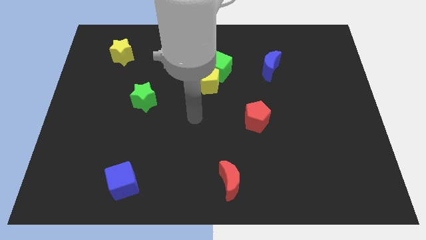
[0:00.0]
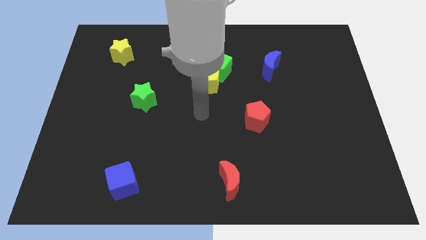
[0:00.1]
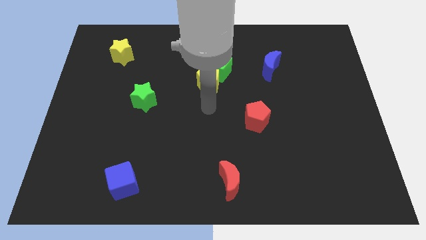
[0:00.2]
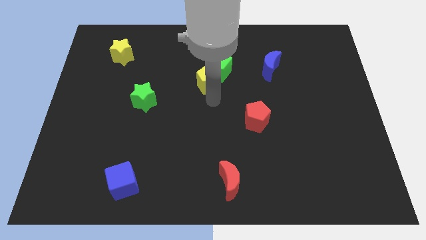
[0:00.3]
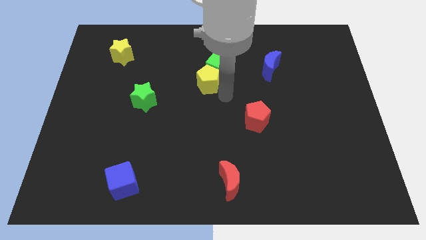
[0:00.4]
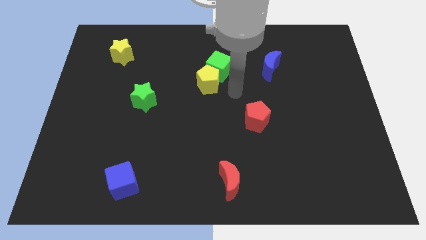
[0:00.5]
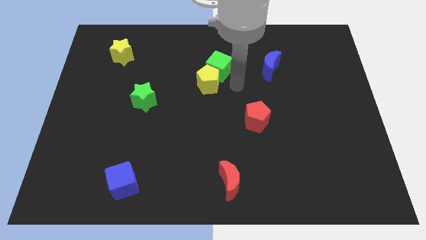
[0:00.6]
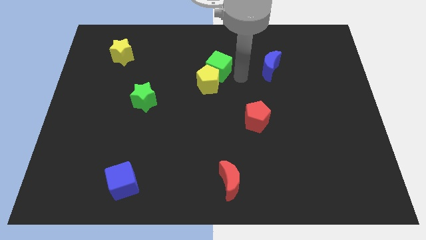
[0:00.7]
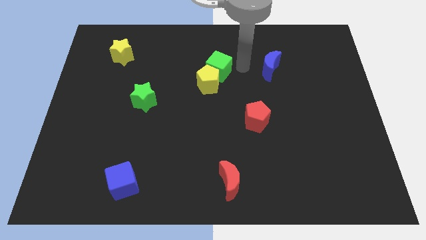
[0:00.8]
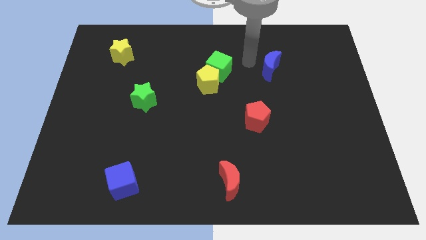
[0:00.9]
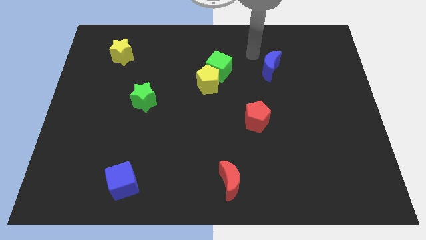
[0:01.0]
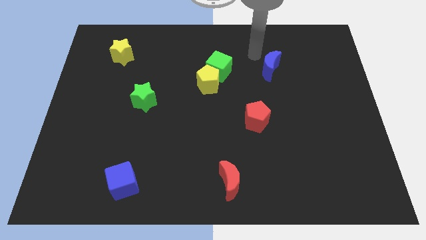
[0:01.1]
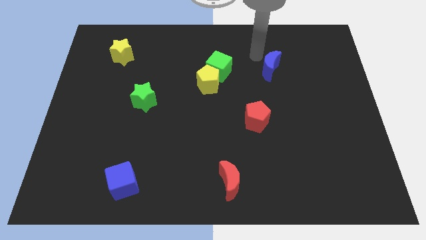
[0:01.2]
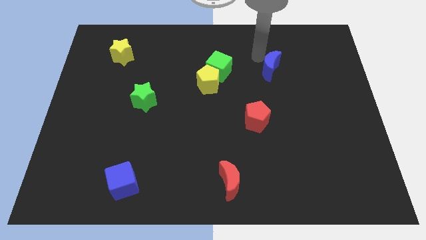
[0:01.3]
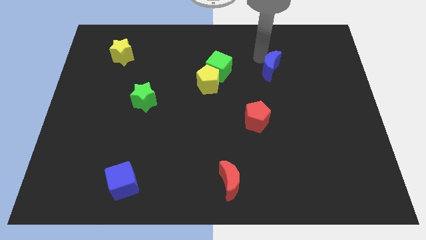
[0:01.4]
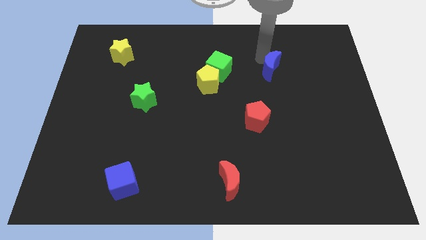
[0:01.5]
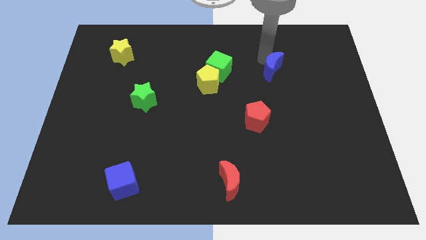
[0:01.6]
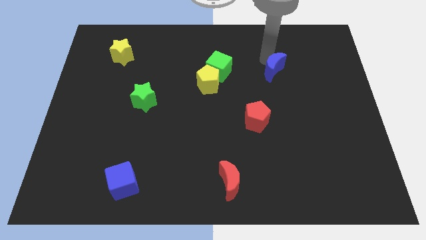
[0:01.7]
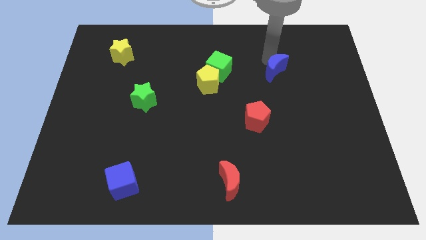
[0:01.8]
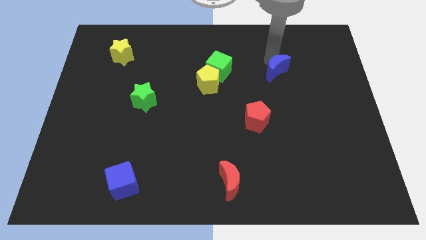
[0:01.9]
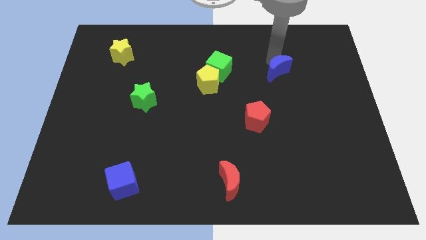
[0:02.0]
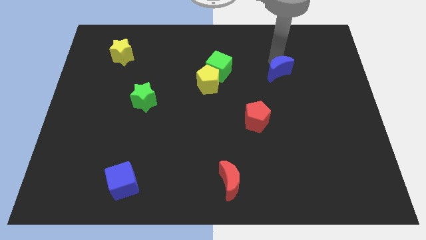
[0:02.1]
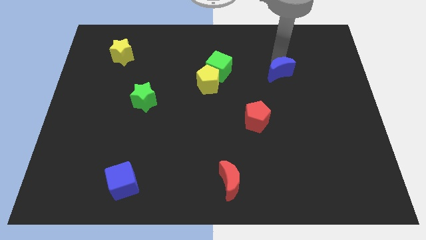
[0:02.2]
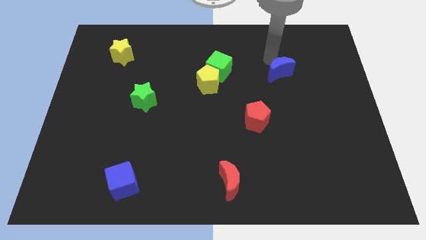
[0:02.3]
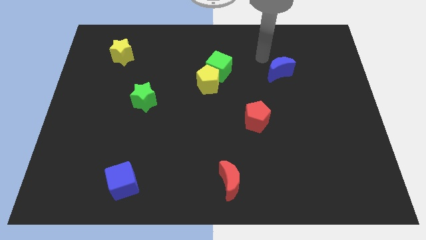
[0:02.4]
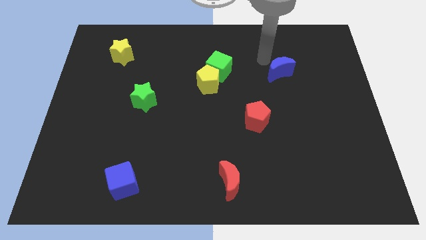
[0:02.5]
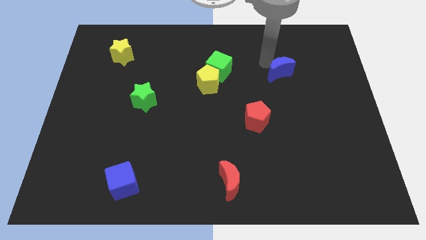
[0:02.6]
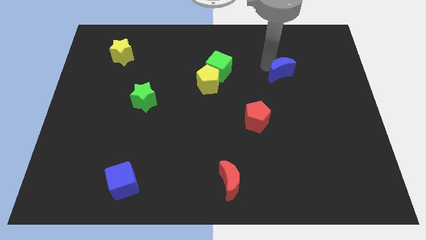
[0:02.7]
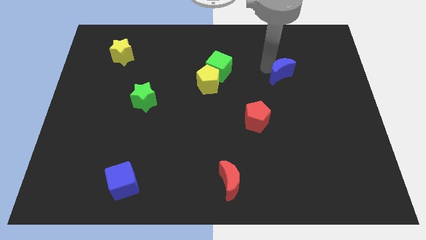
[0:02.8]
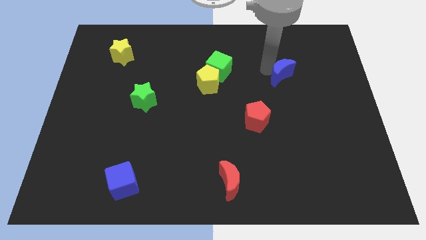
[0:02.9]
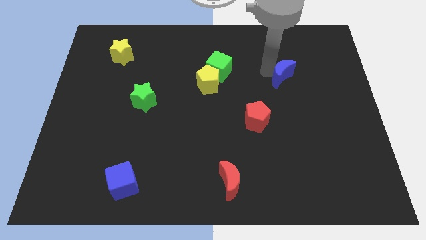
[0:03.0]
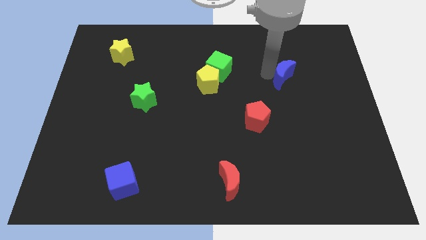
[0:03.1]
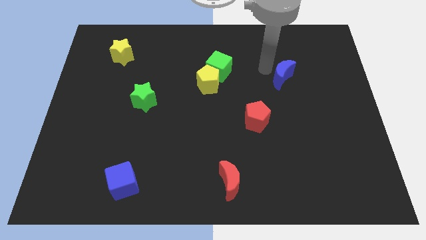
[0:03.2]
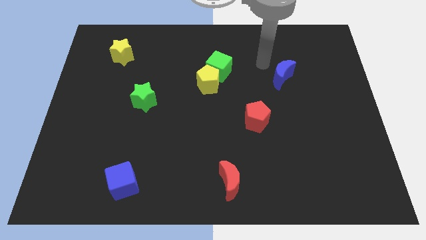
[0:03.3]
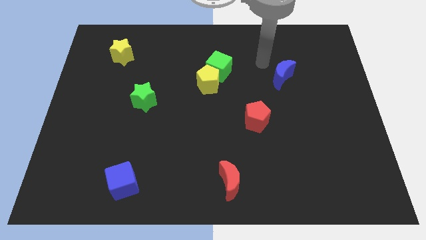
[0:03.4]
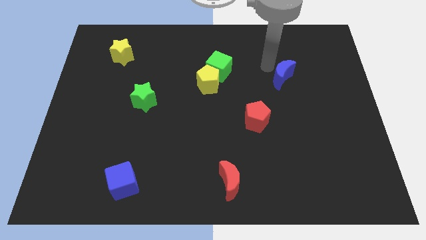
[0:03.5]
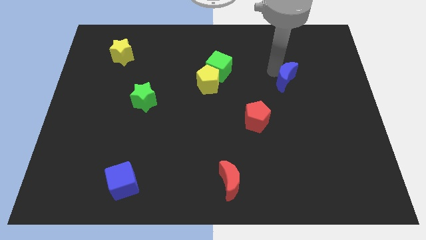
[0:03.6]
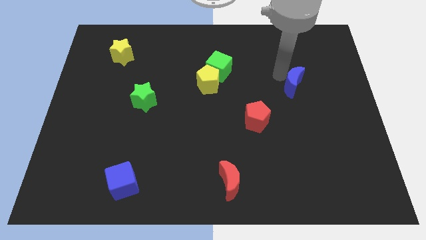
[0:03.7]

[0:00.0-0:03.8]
slightly slide the blue moon down and to the right

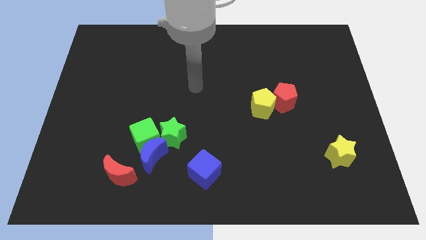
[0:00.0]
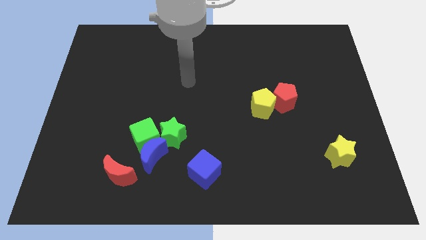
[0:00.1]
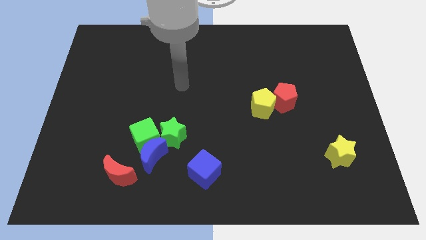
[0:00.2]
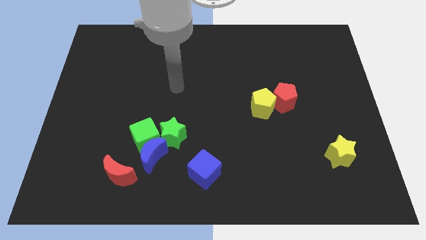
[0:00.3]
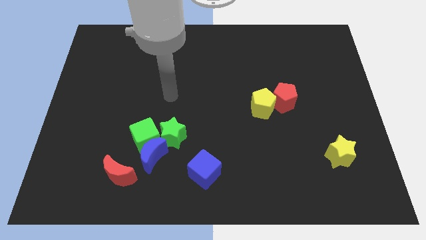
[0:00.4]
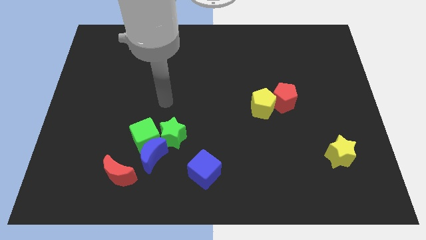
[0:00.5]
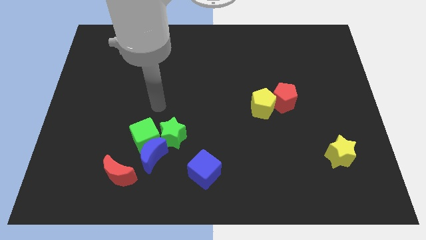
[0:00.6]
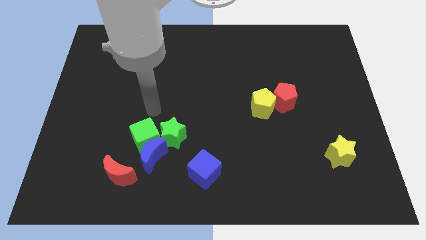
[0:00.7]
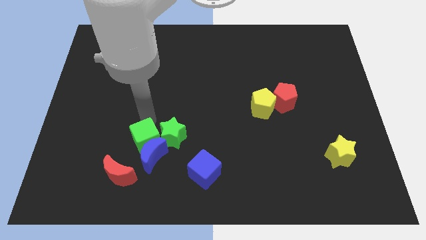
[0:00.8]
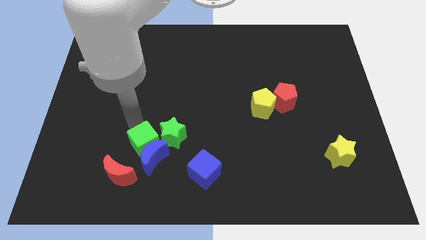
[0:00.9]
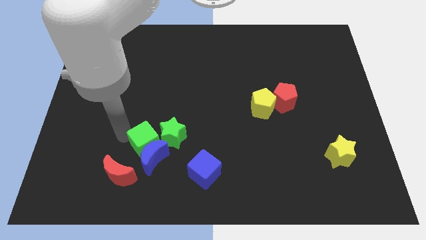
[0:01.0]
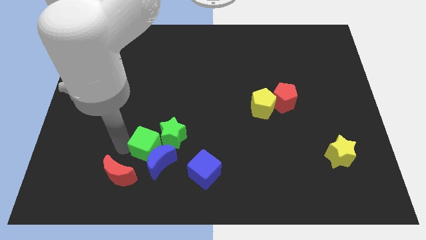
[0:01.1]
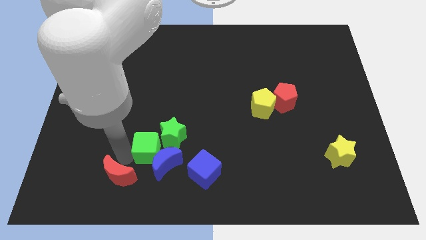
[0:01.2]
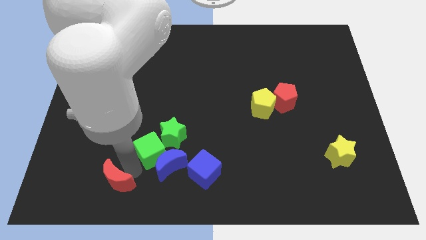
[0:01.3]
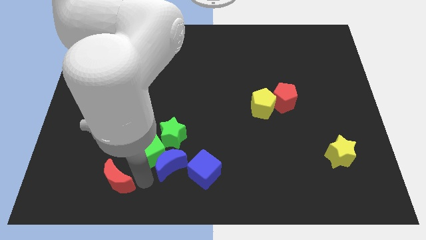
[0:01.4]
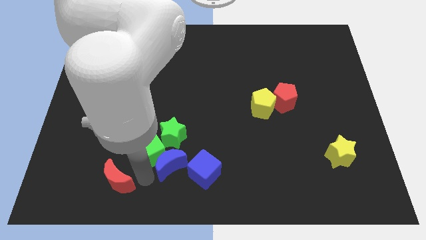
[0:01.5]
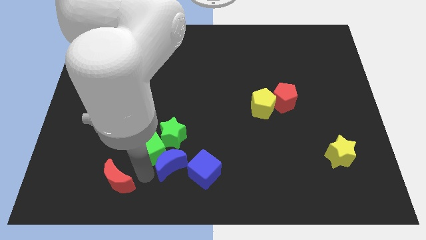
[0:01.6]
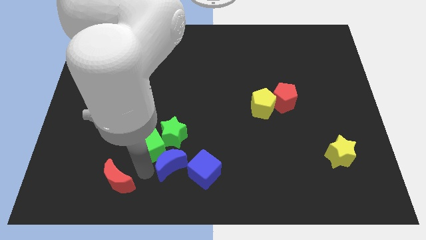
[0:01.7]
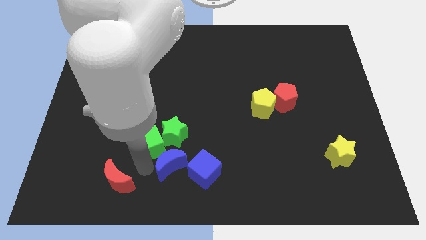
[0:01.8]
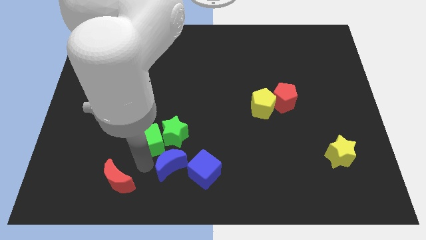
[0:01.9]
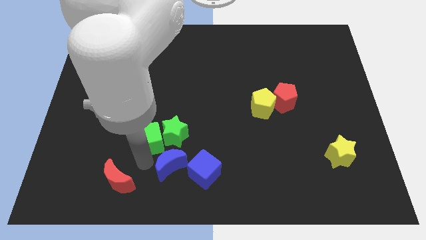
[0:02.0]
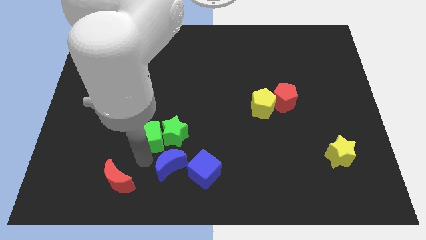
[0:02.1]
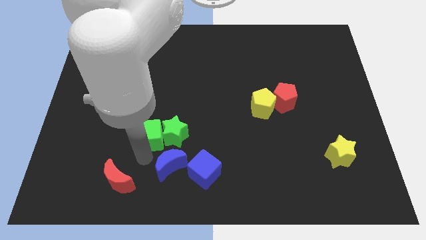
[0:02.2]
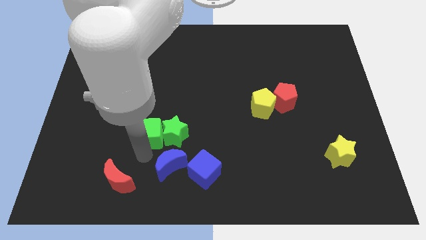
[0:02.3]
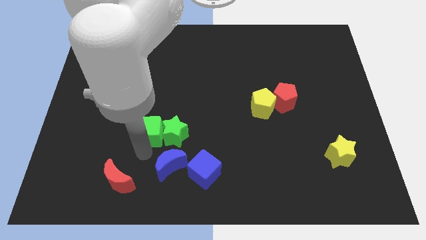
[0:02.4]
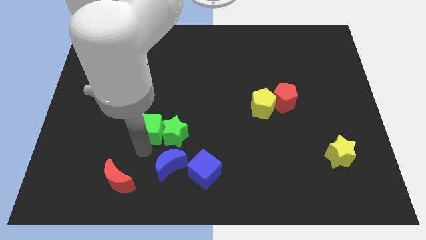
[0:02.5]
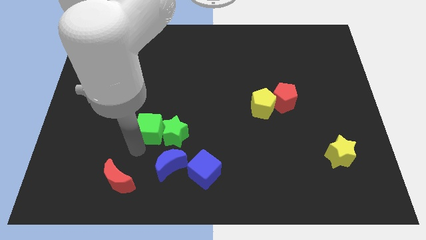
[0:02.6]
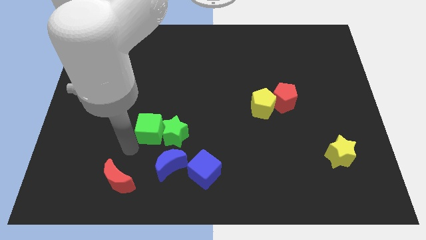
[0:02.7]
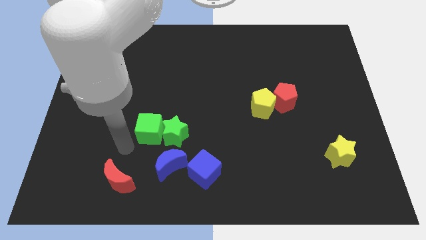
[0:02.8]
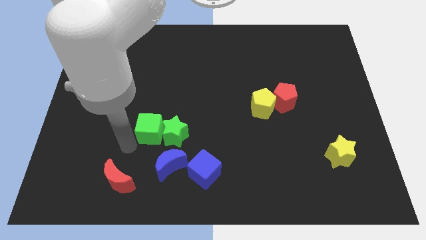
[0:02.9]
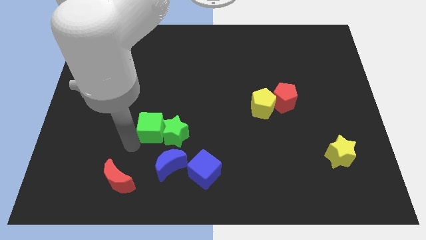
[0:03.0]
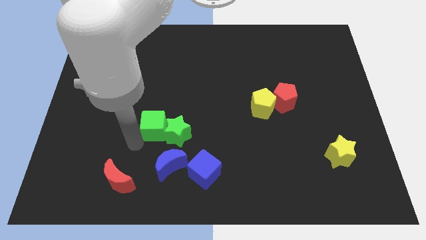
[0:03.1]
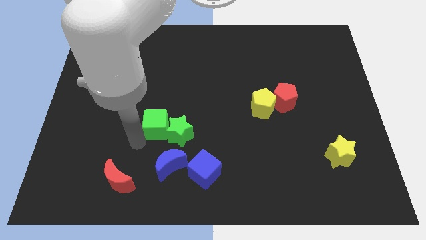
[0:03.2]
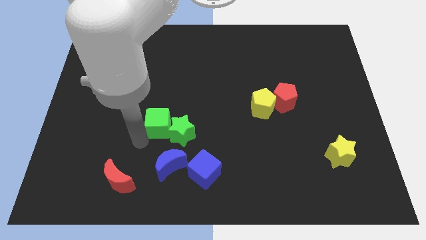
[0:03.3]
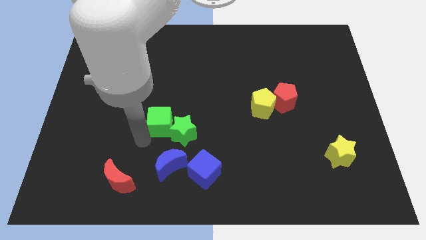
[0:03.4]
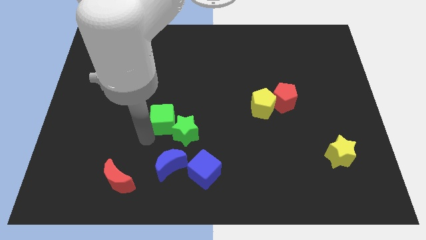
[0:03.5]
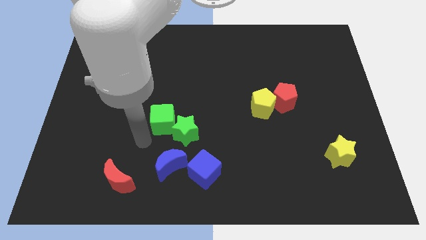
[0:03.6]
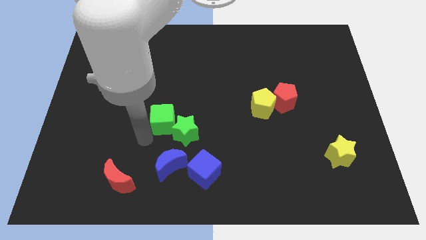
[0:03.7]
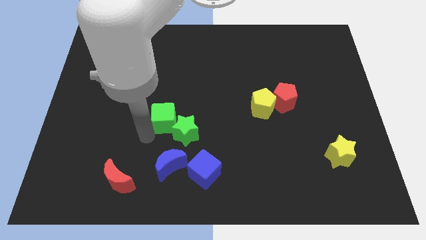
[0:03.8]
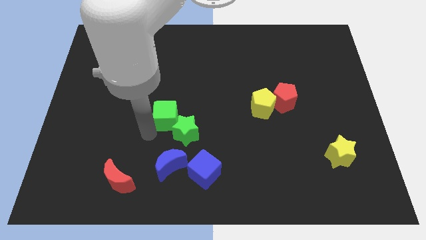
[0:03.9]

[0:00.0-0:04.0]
move the green cube upwards and then right slightly

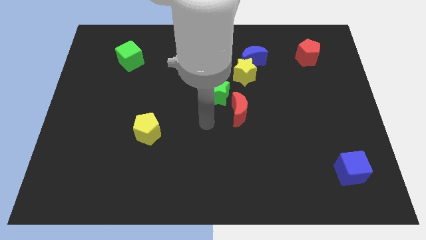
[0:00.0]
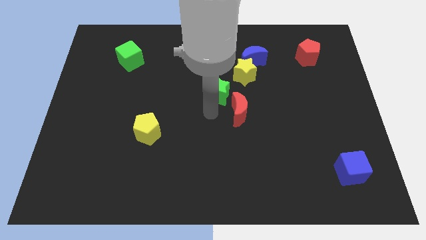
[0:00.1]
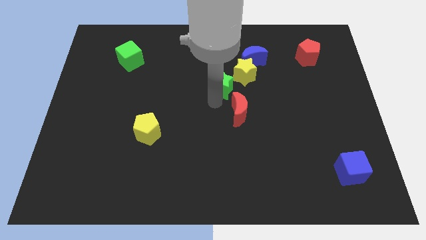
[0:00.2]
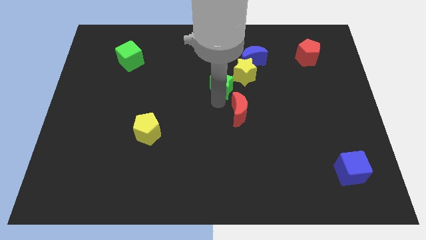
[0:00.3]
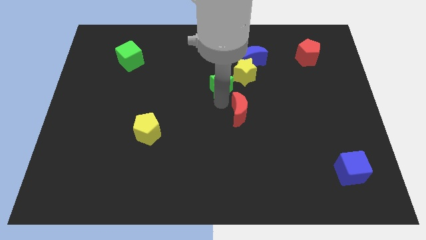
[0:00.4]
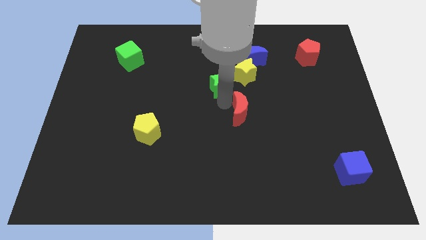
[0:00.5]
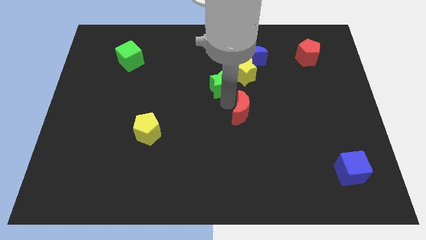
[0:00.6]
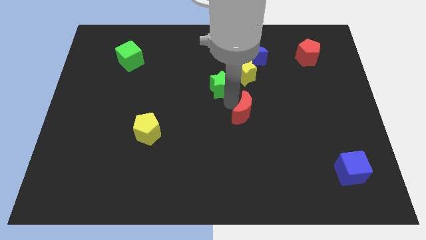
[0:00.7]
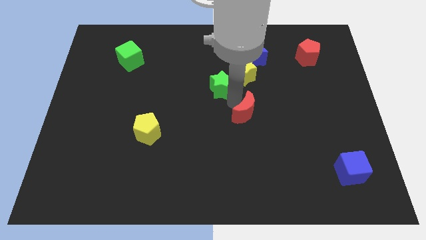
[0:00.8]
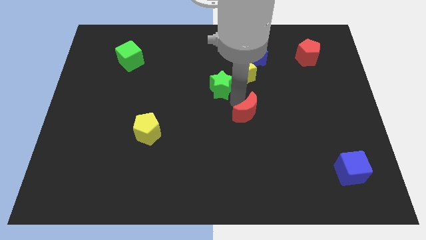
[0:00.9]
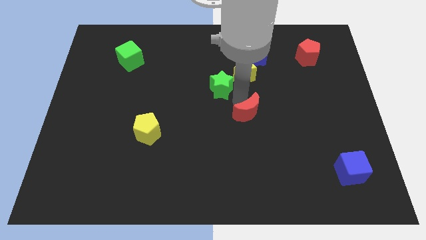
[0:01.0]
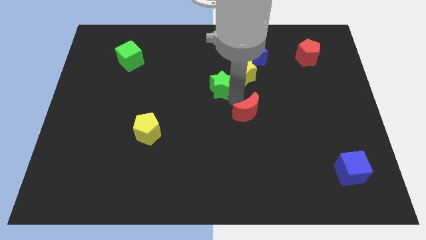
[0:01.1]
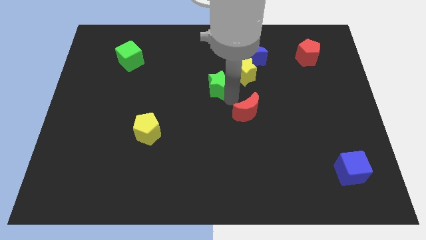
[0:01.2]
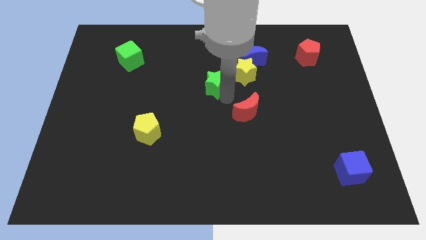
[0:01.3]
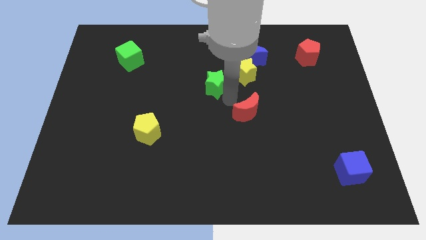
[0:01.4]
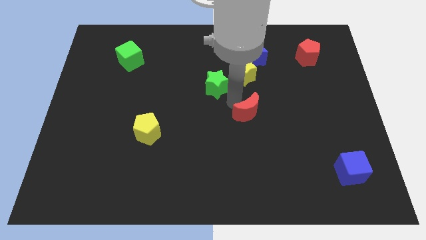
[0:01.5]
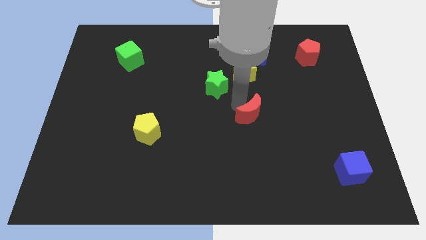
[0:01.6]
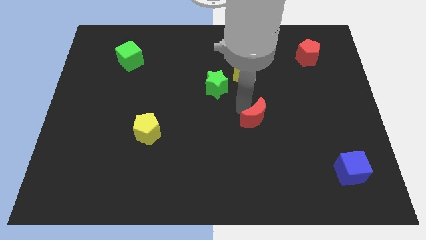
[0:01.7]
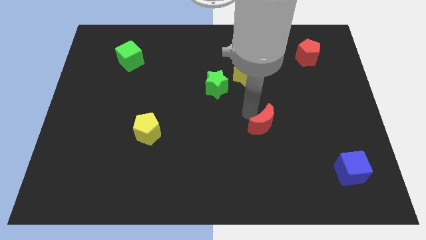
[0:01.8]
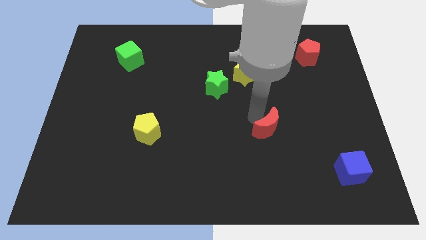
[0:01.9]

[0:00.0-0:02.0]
push the red moon slightly downwards and right diagonally
